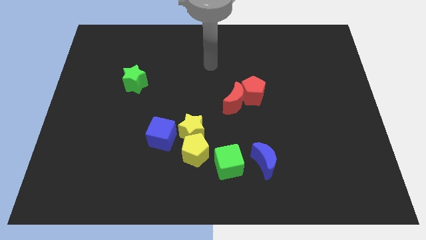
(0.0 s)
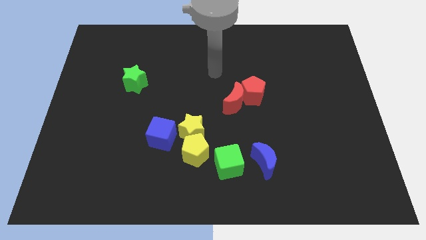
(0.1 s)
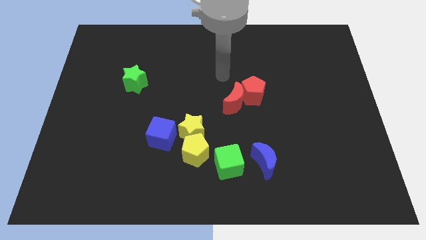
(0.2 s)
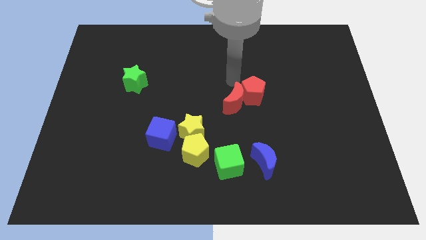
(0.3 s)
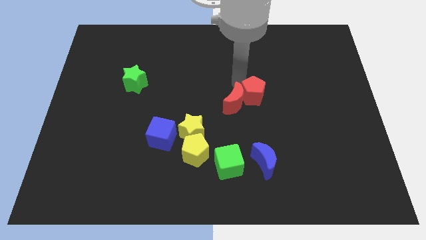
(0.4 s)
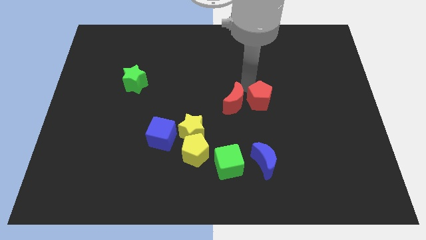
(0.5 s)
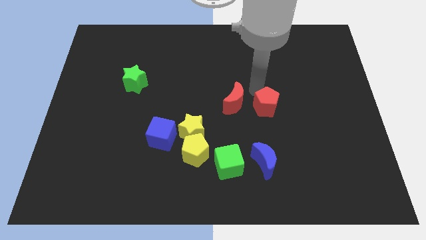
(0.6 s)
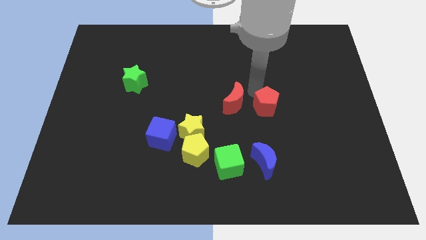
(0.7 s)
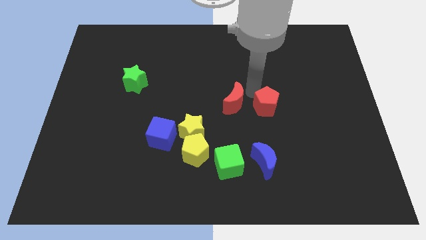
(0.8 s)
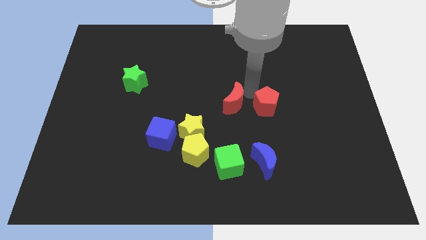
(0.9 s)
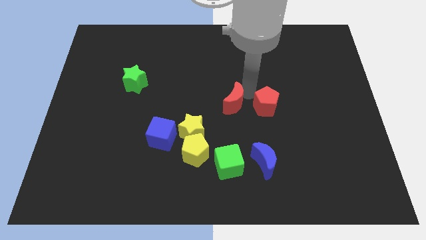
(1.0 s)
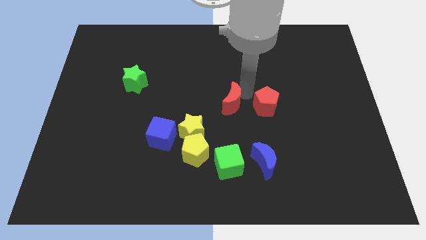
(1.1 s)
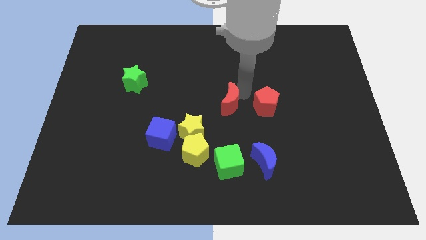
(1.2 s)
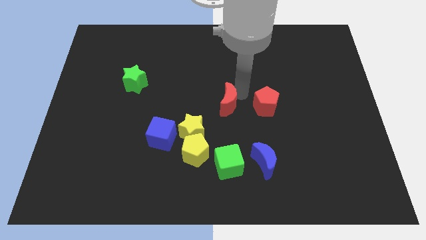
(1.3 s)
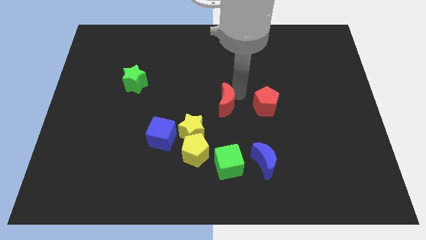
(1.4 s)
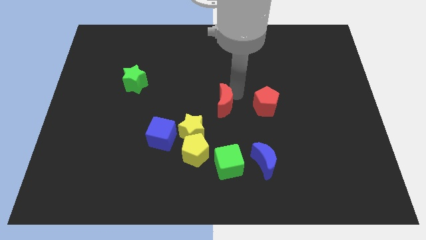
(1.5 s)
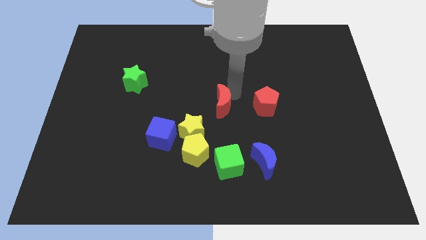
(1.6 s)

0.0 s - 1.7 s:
pull the red moon apart from the red pentagon

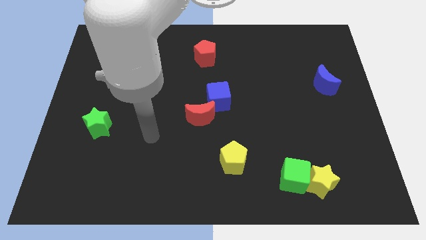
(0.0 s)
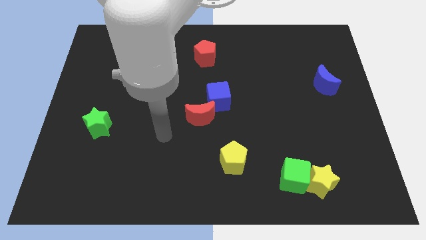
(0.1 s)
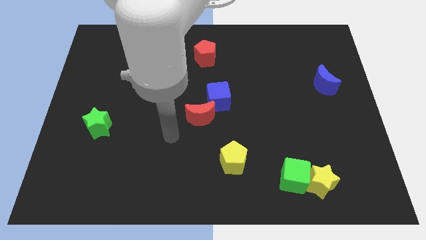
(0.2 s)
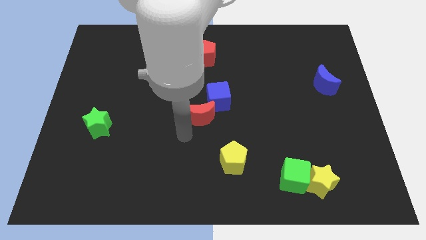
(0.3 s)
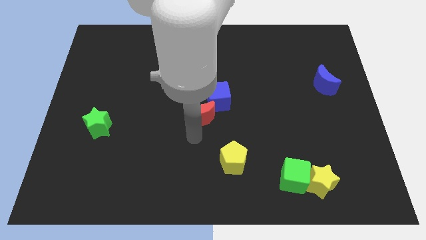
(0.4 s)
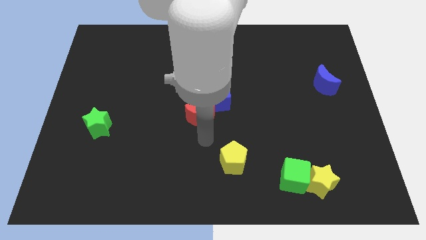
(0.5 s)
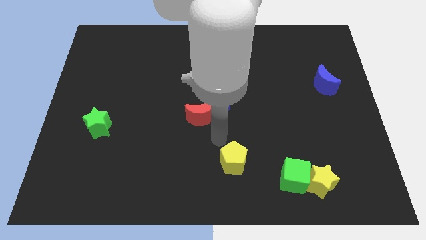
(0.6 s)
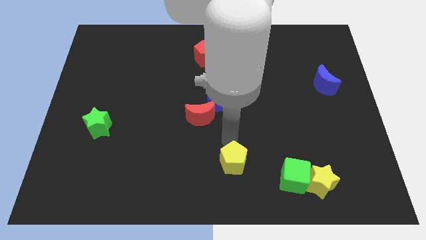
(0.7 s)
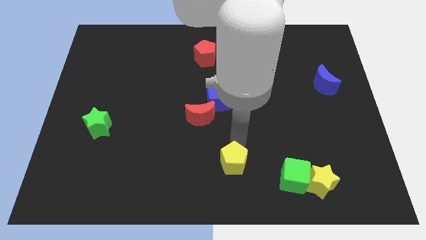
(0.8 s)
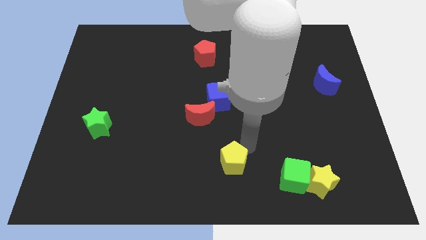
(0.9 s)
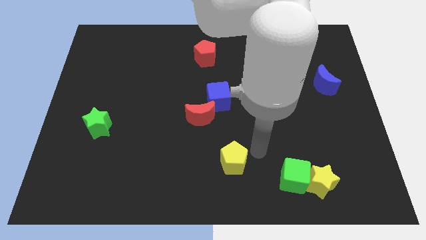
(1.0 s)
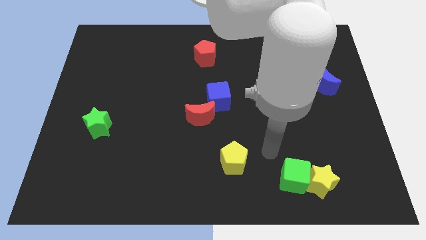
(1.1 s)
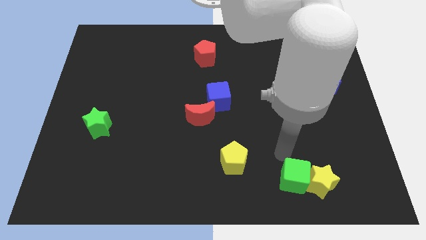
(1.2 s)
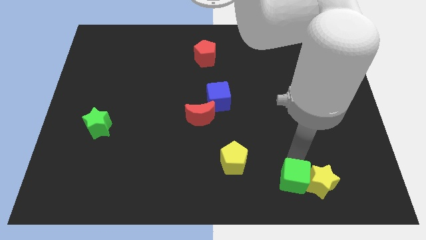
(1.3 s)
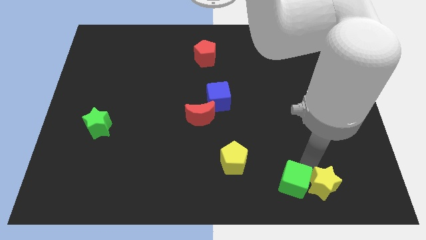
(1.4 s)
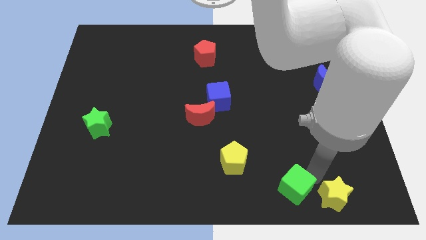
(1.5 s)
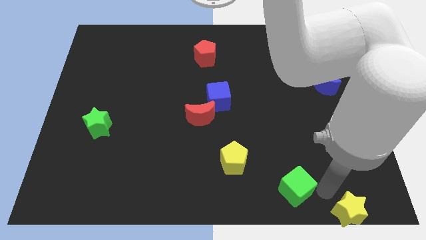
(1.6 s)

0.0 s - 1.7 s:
move the green cube away from the yellow star

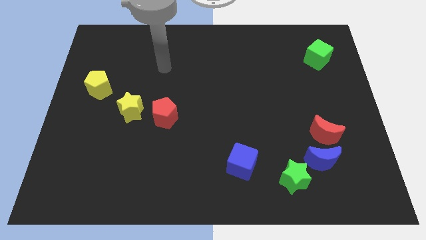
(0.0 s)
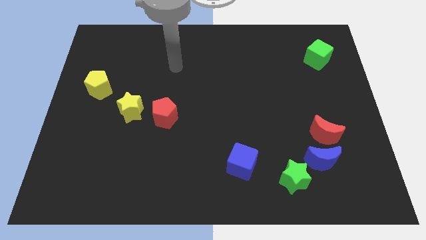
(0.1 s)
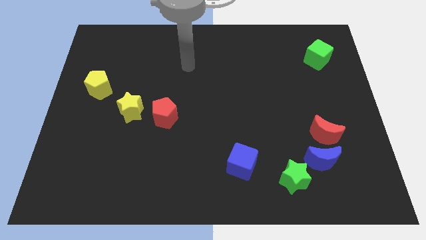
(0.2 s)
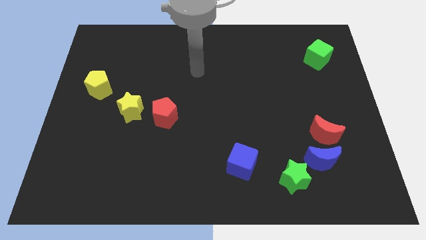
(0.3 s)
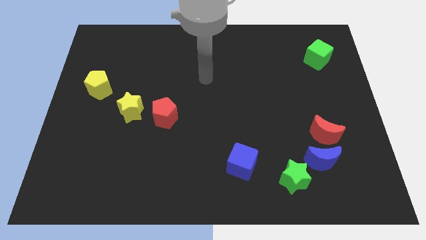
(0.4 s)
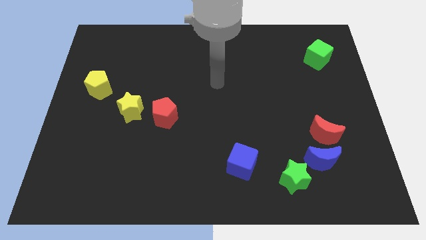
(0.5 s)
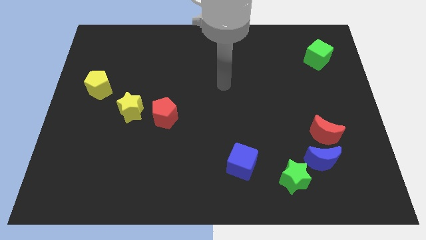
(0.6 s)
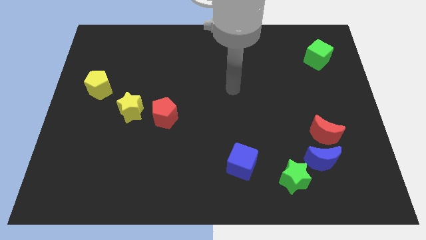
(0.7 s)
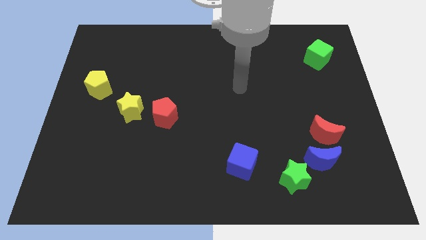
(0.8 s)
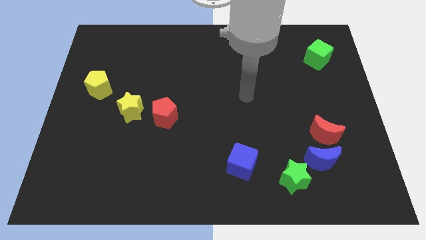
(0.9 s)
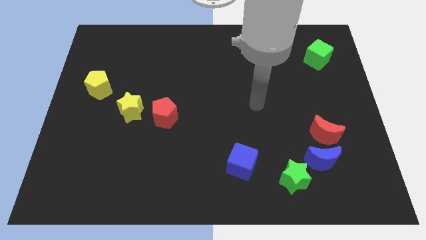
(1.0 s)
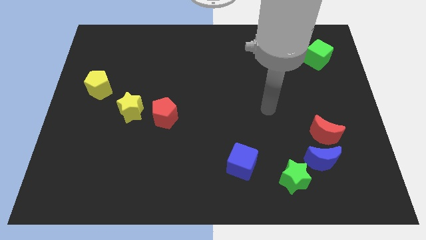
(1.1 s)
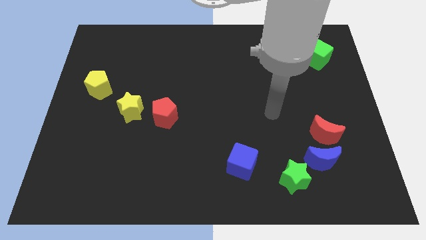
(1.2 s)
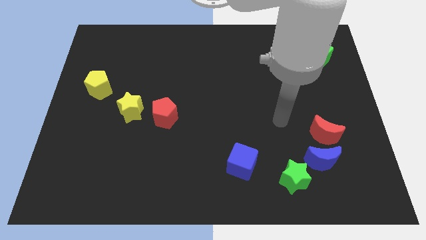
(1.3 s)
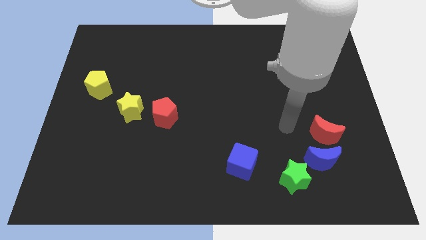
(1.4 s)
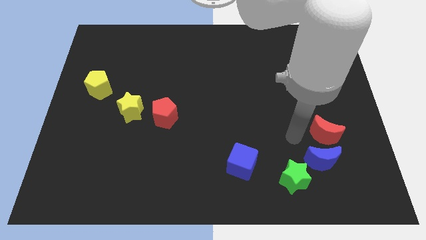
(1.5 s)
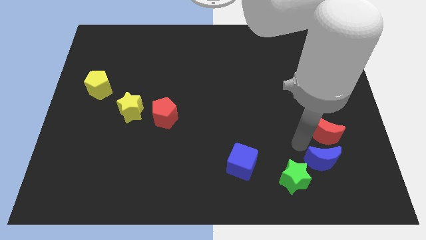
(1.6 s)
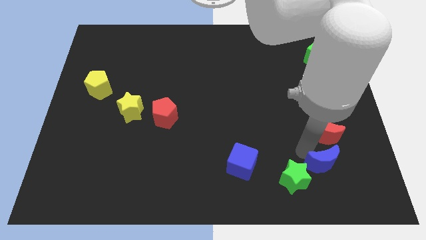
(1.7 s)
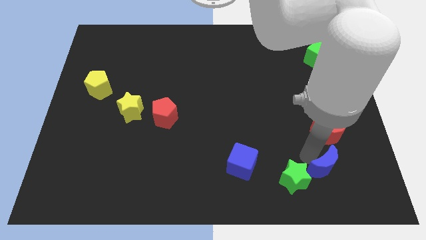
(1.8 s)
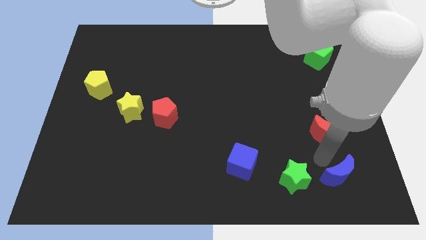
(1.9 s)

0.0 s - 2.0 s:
separate the red moon from the blue moon

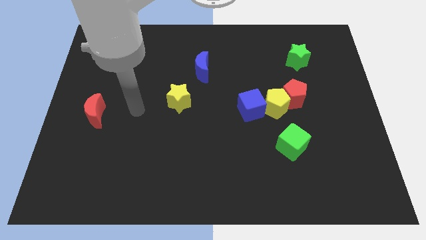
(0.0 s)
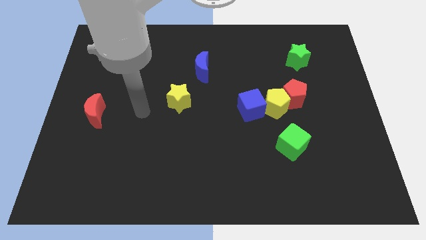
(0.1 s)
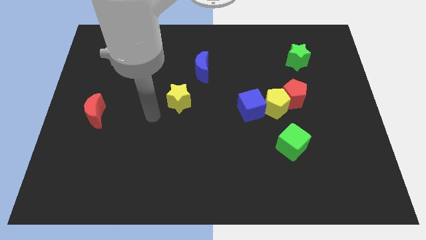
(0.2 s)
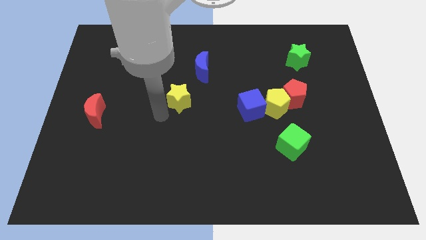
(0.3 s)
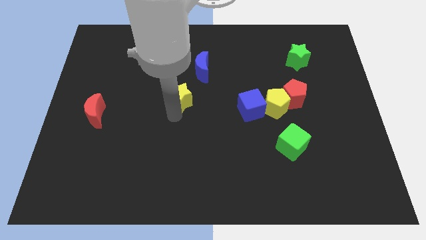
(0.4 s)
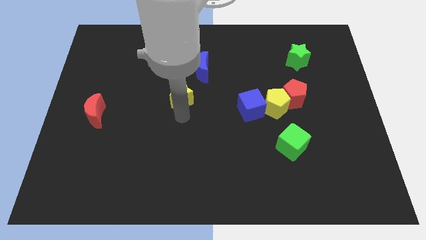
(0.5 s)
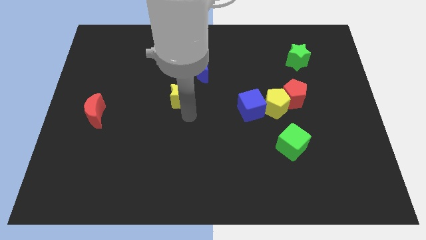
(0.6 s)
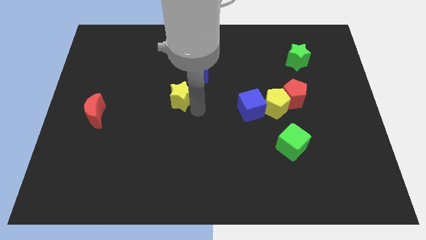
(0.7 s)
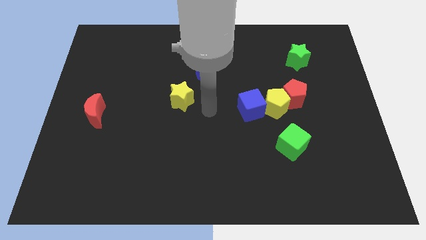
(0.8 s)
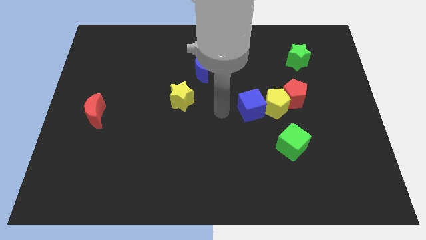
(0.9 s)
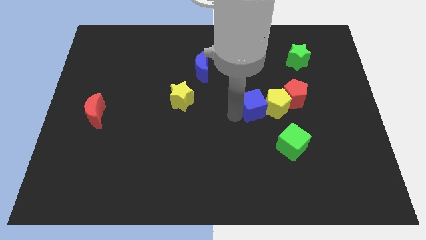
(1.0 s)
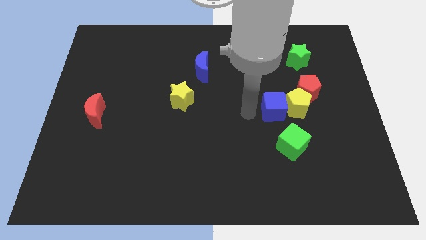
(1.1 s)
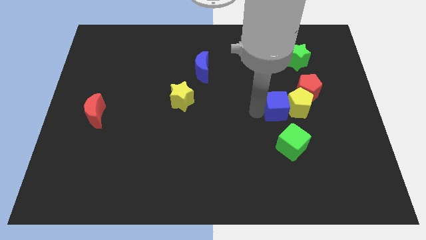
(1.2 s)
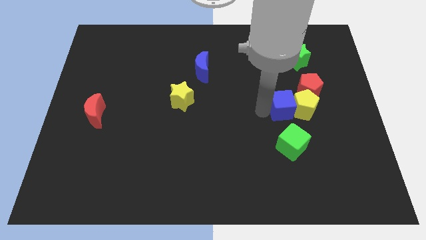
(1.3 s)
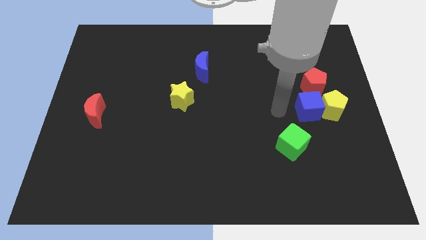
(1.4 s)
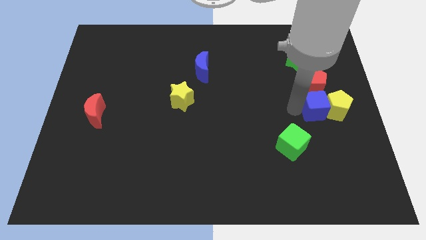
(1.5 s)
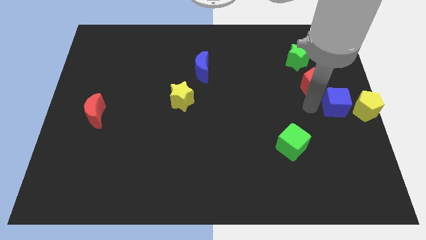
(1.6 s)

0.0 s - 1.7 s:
separate the red pentagon from the yellow pentagon

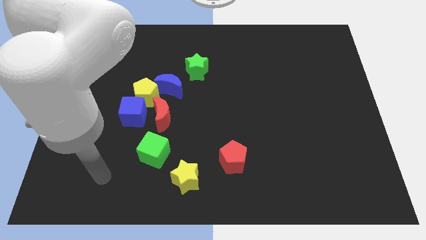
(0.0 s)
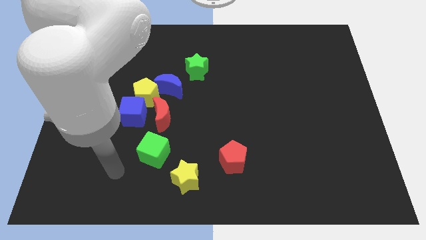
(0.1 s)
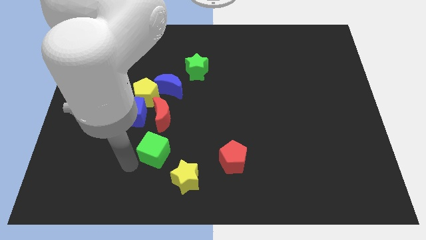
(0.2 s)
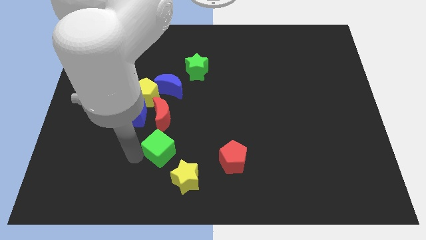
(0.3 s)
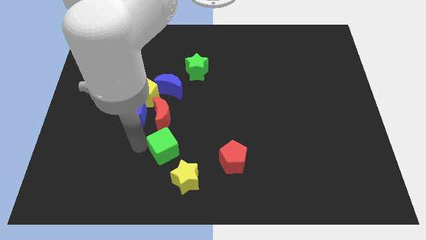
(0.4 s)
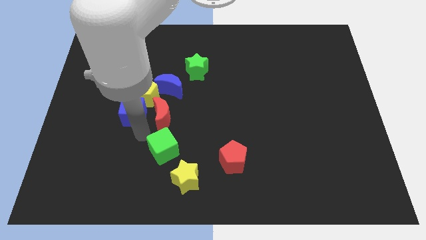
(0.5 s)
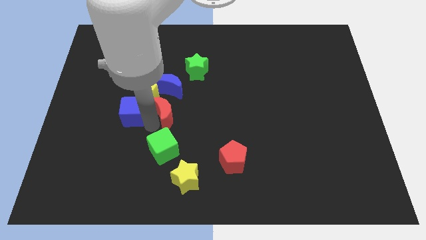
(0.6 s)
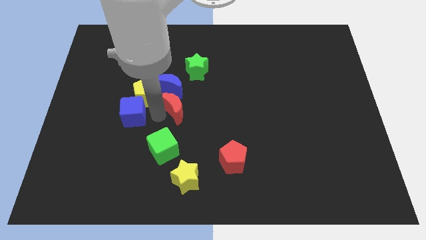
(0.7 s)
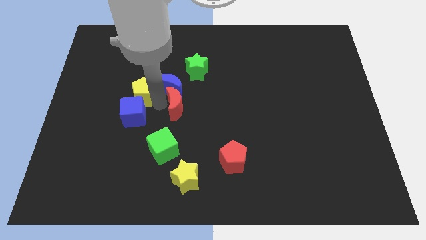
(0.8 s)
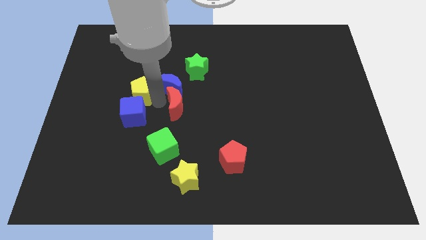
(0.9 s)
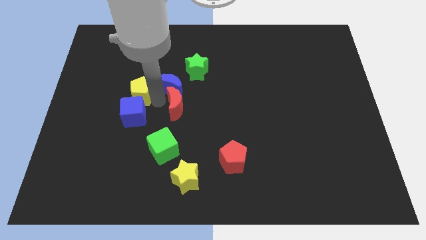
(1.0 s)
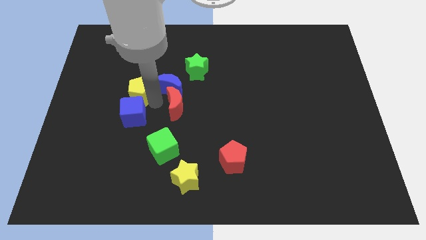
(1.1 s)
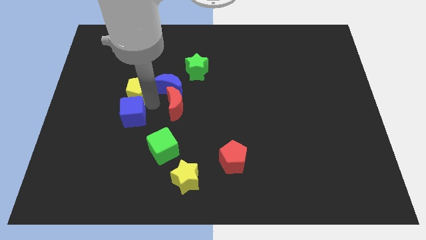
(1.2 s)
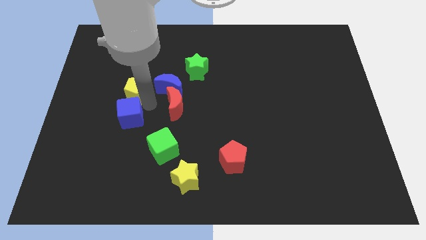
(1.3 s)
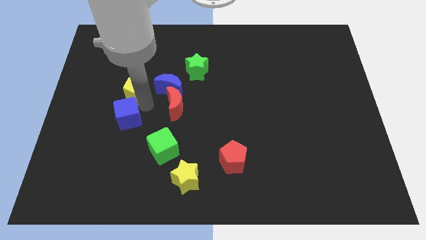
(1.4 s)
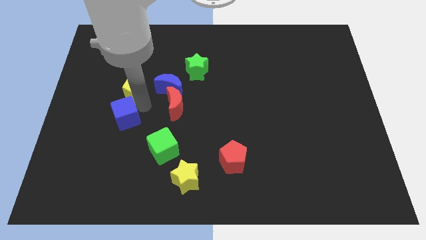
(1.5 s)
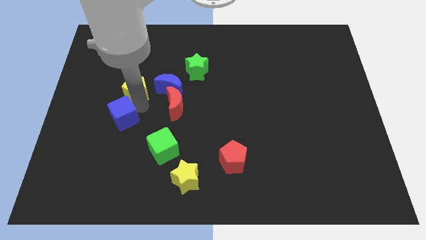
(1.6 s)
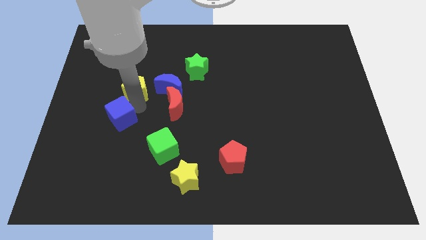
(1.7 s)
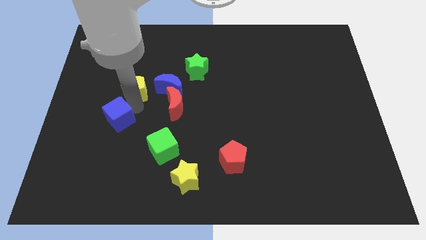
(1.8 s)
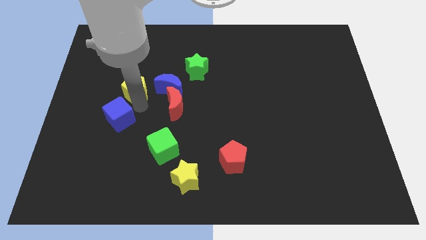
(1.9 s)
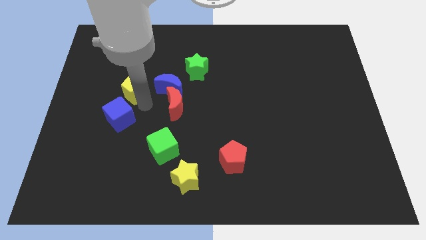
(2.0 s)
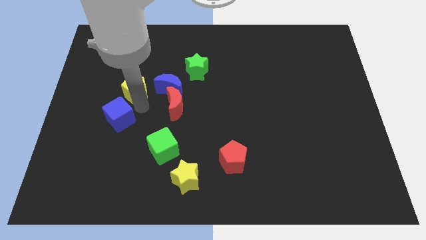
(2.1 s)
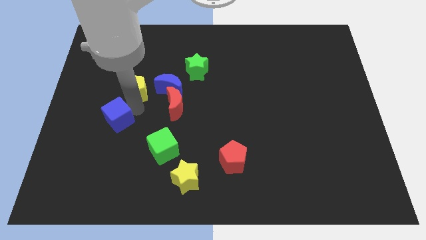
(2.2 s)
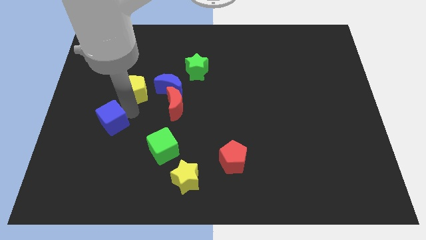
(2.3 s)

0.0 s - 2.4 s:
pull the blue cube apart from the yellow pentagon and red moon
